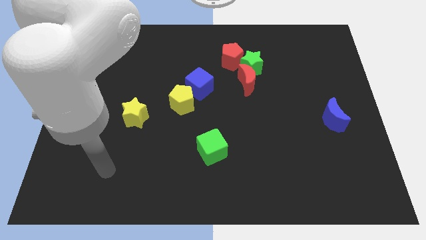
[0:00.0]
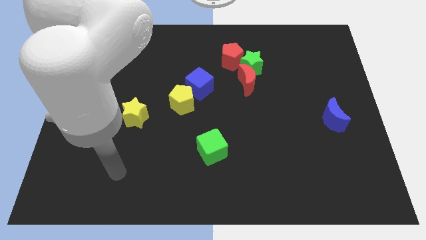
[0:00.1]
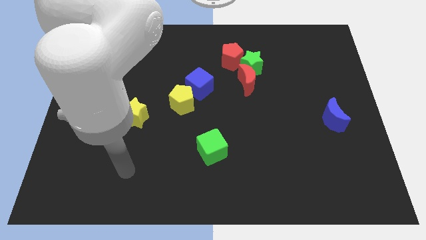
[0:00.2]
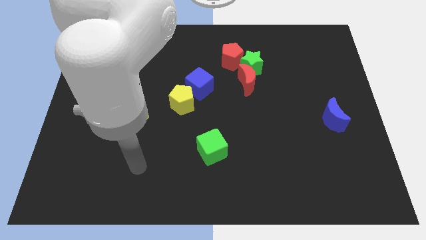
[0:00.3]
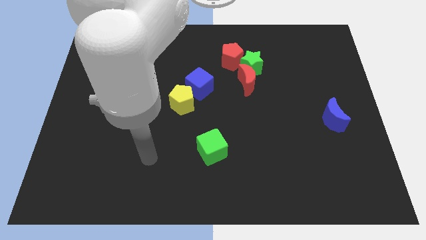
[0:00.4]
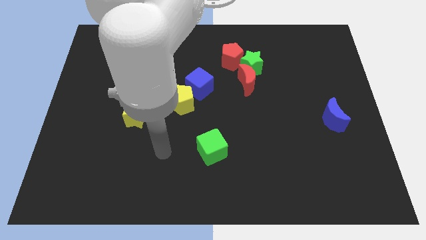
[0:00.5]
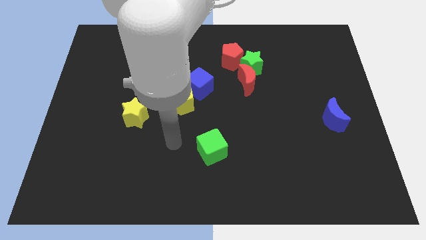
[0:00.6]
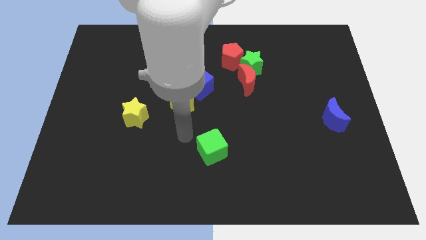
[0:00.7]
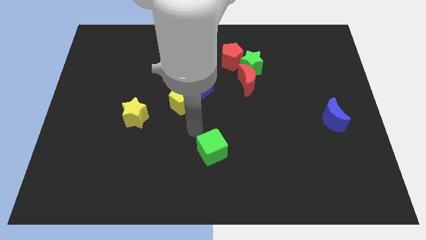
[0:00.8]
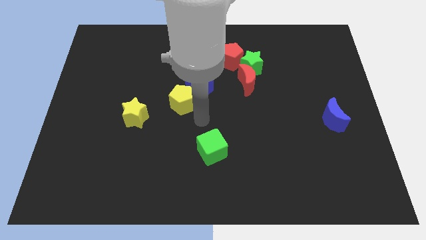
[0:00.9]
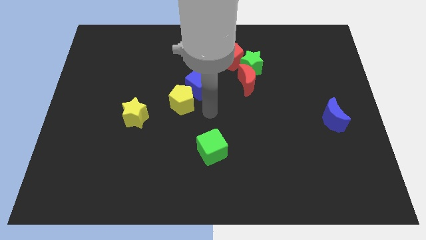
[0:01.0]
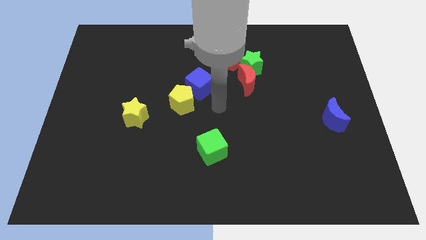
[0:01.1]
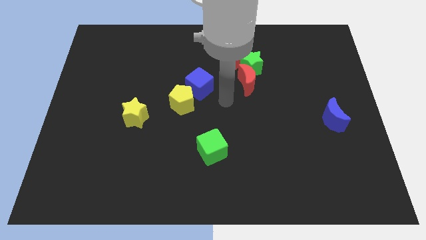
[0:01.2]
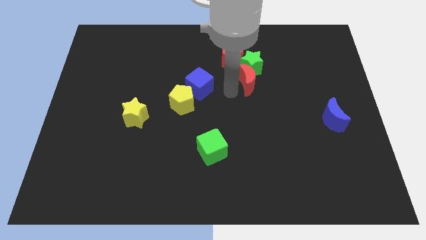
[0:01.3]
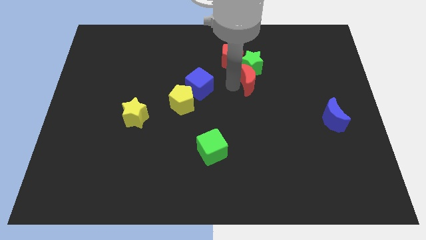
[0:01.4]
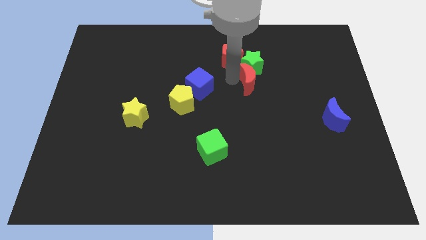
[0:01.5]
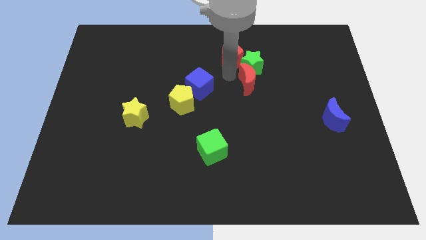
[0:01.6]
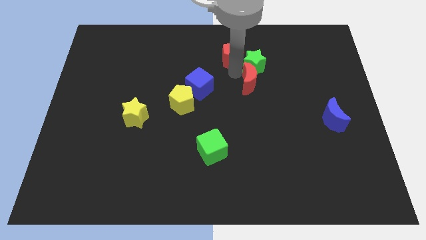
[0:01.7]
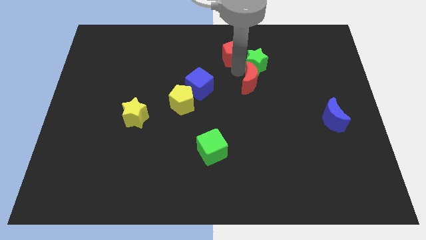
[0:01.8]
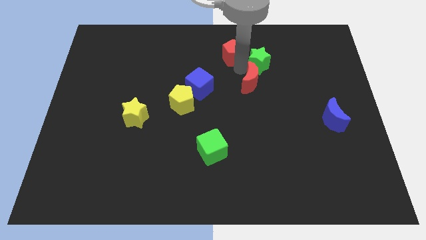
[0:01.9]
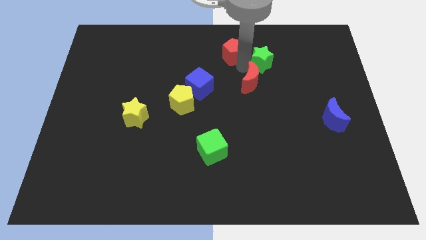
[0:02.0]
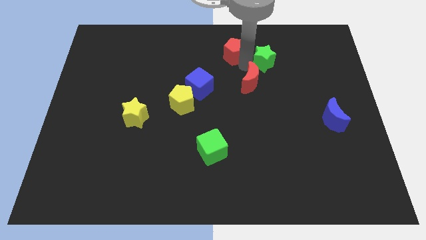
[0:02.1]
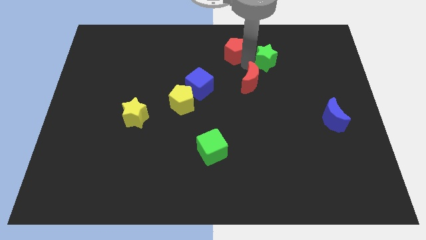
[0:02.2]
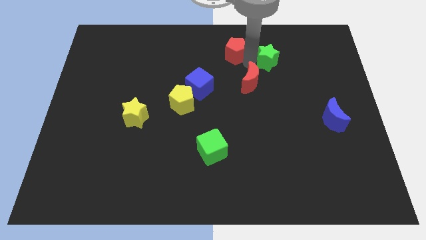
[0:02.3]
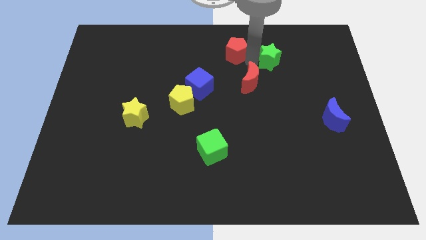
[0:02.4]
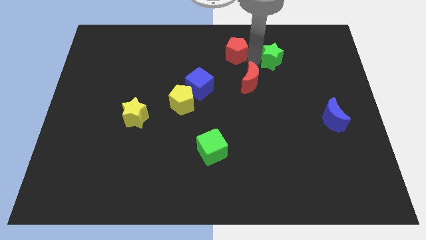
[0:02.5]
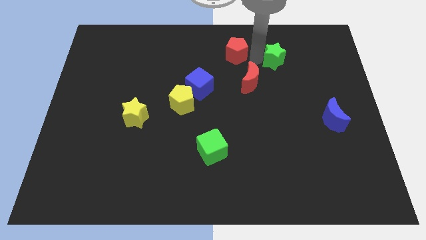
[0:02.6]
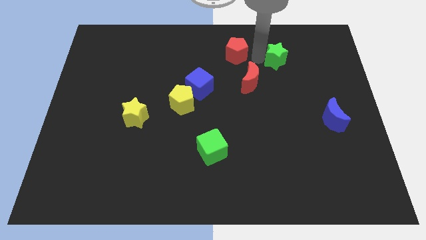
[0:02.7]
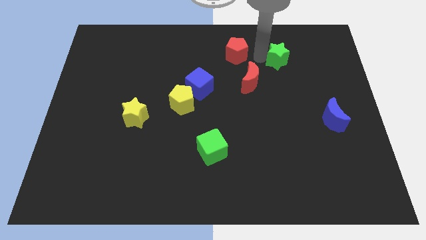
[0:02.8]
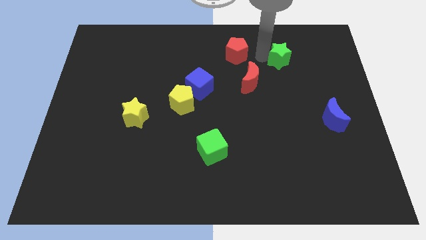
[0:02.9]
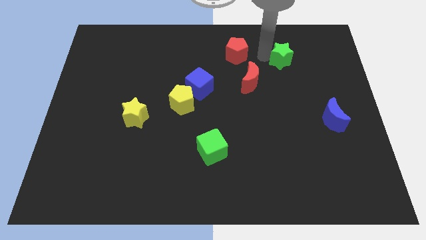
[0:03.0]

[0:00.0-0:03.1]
move the green star away from the red pentagon and red moon

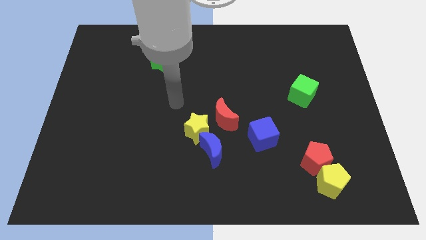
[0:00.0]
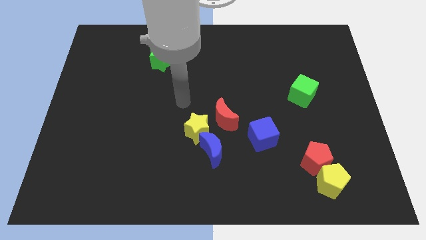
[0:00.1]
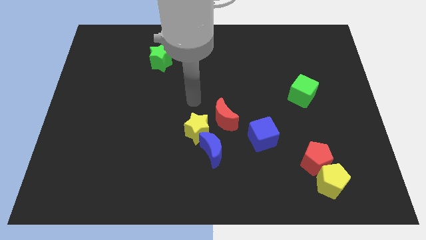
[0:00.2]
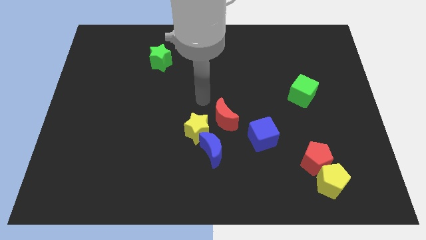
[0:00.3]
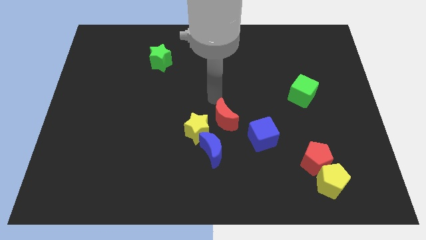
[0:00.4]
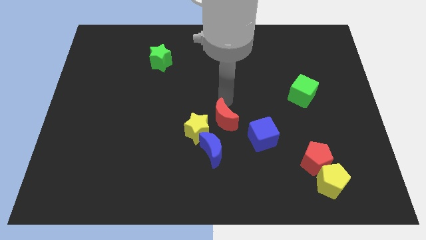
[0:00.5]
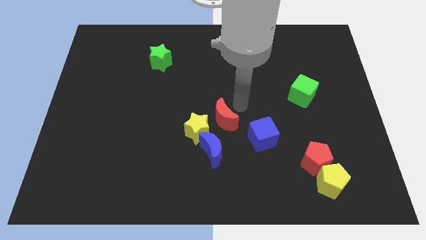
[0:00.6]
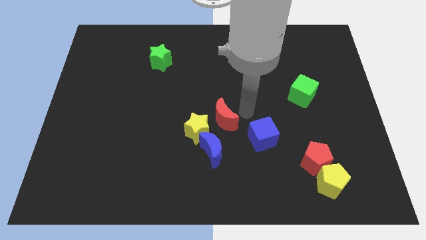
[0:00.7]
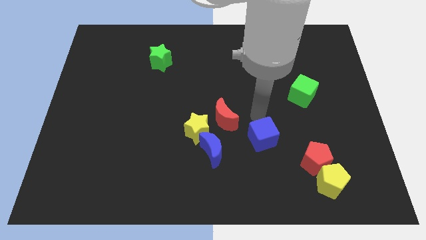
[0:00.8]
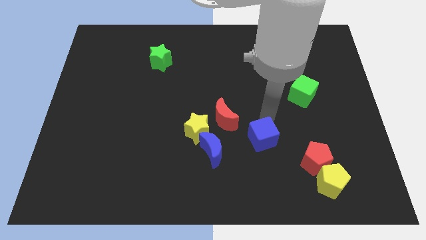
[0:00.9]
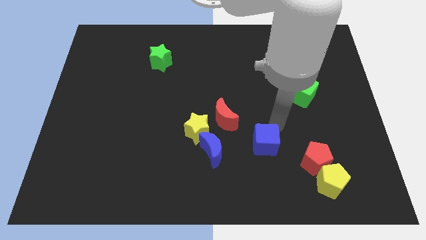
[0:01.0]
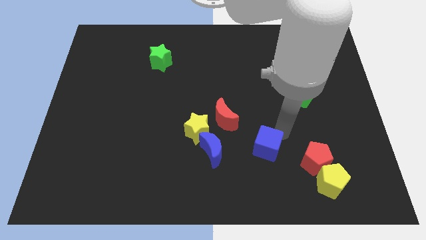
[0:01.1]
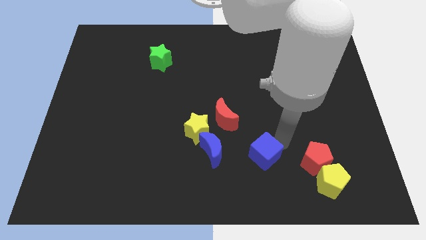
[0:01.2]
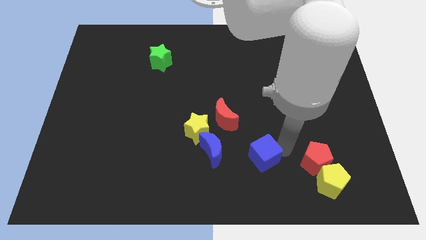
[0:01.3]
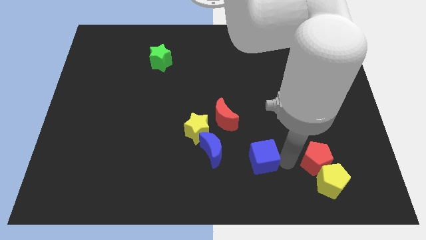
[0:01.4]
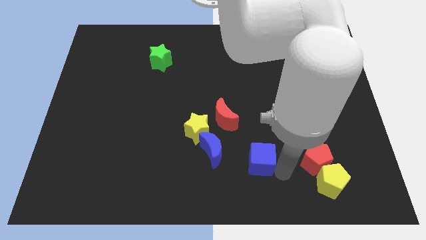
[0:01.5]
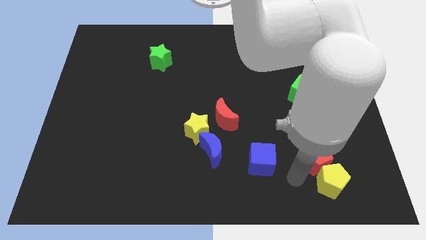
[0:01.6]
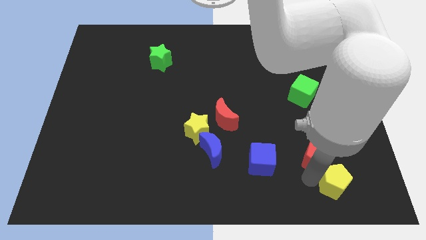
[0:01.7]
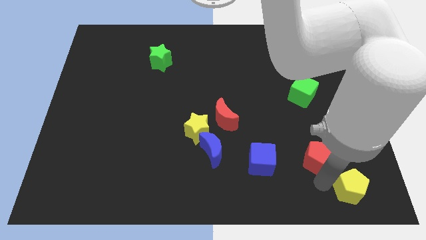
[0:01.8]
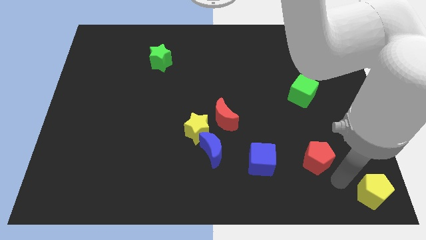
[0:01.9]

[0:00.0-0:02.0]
separate the red pentagon from the yellow pentagon

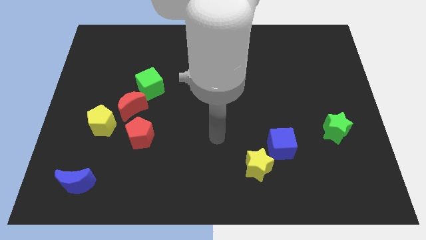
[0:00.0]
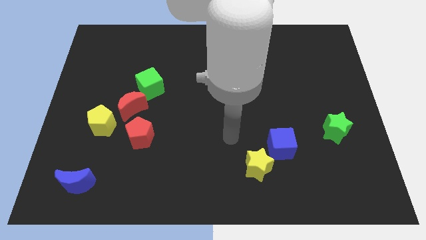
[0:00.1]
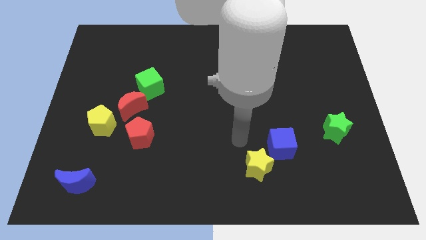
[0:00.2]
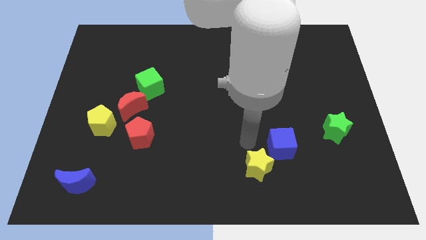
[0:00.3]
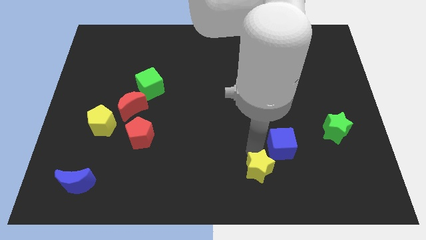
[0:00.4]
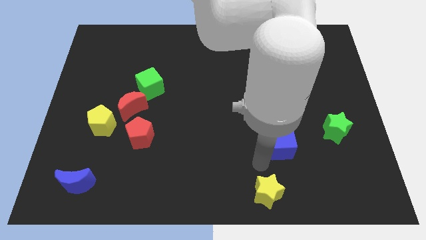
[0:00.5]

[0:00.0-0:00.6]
pull the blue cube apart from the yellow star

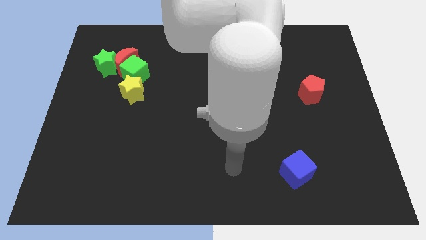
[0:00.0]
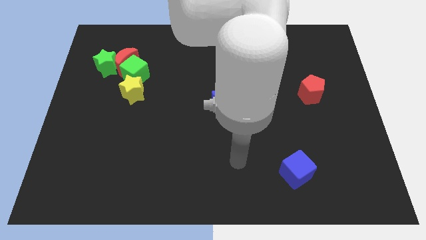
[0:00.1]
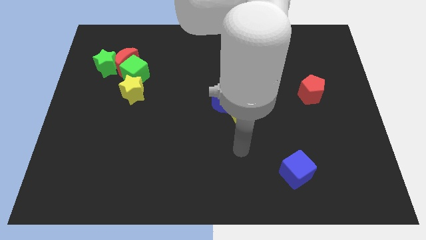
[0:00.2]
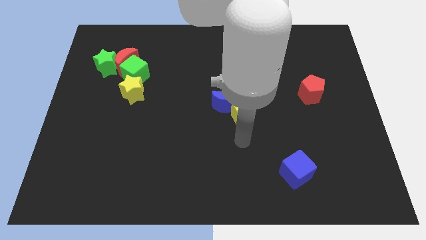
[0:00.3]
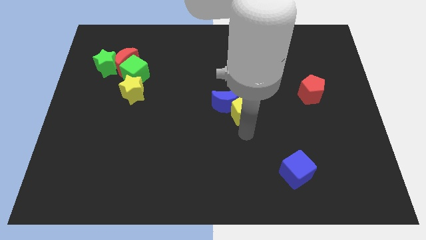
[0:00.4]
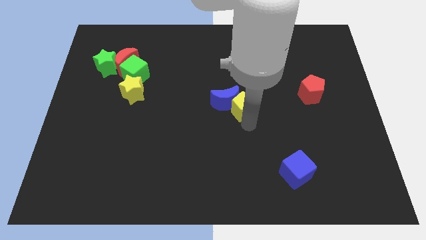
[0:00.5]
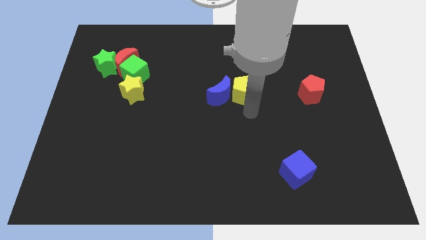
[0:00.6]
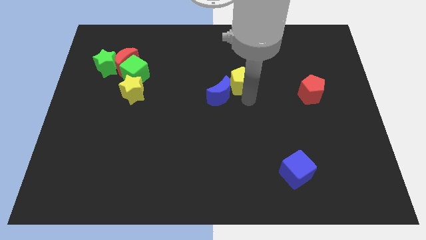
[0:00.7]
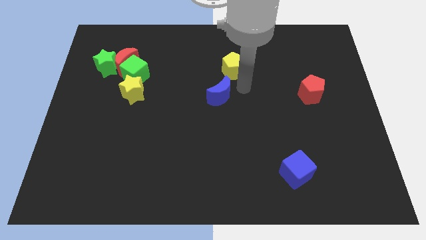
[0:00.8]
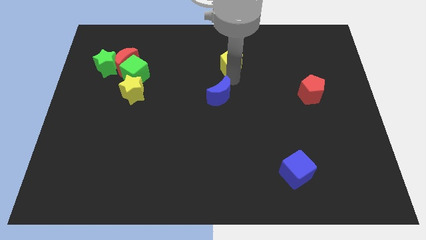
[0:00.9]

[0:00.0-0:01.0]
separate the blue moon from the yellow pentagon

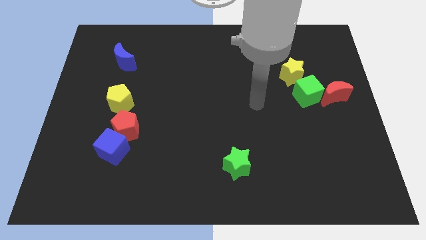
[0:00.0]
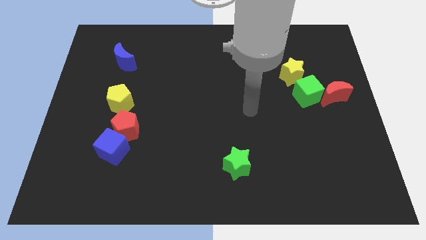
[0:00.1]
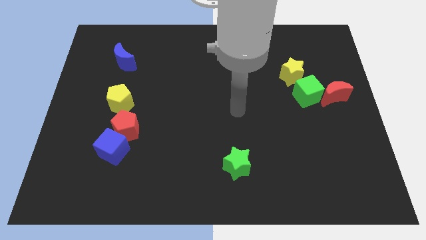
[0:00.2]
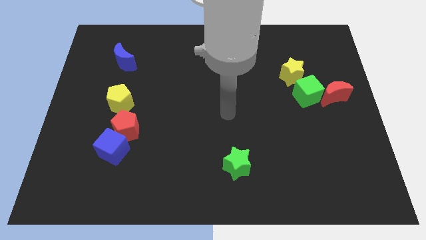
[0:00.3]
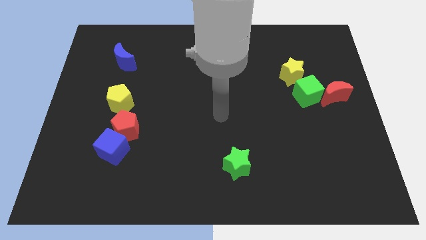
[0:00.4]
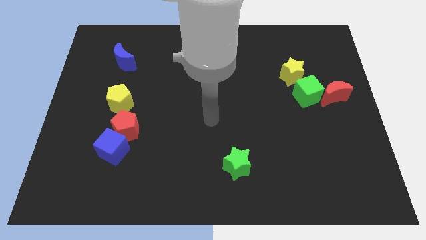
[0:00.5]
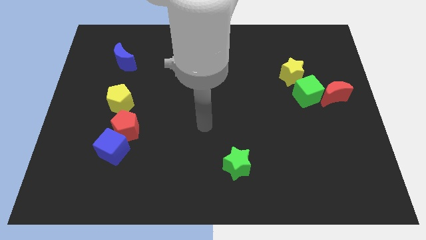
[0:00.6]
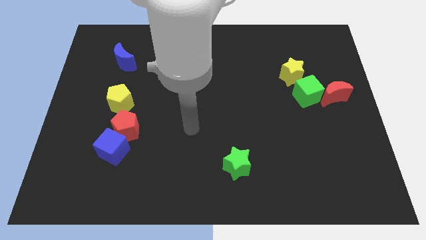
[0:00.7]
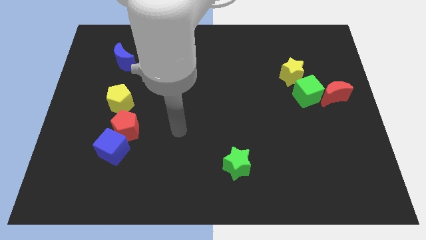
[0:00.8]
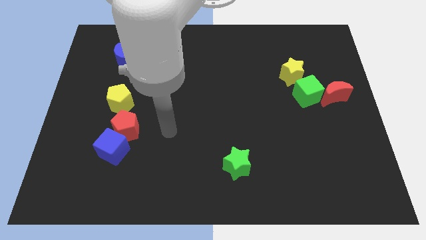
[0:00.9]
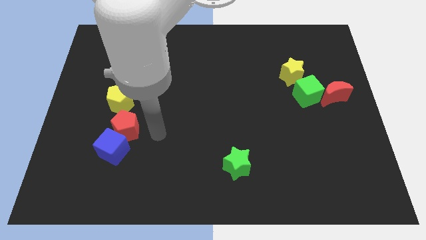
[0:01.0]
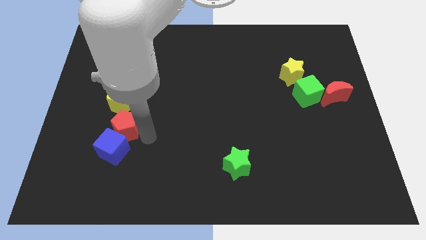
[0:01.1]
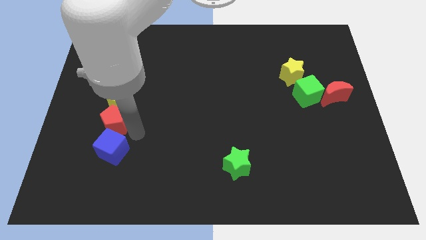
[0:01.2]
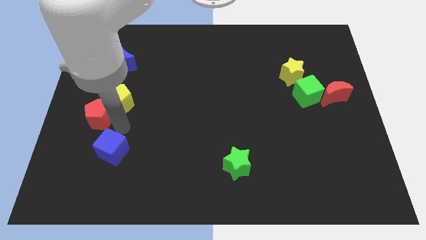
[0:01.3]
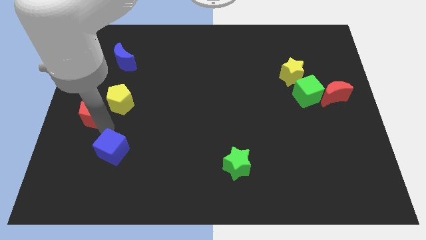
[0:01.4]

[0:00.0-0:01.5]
separate the blue cube from the red pentagon

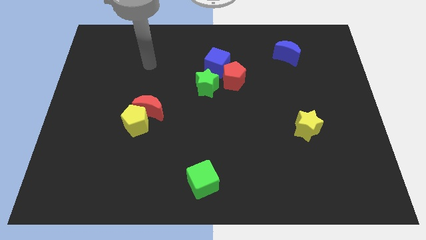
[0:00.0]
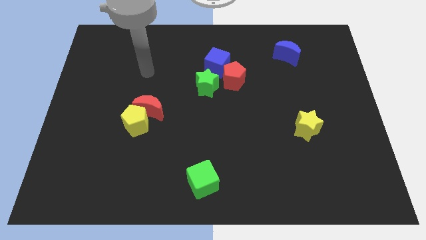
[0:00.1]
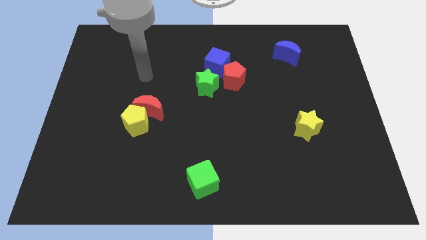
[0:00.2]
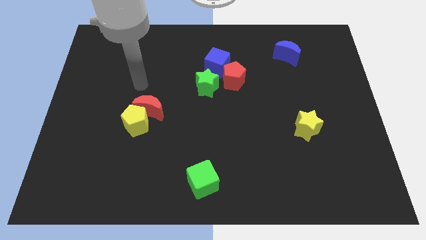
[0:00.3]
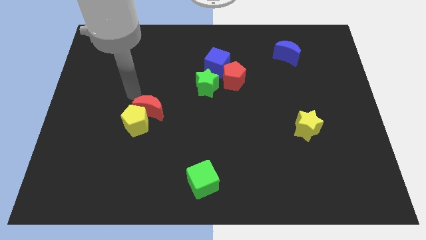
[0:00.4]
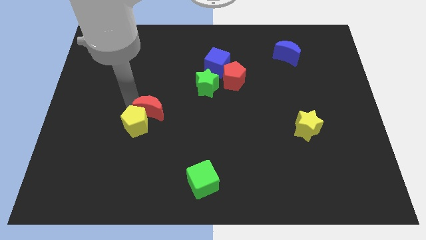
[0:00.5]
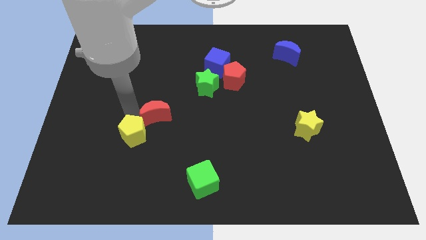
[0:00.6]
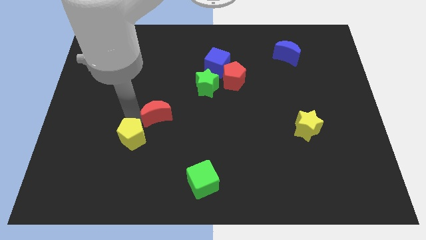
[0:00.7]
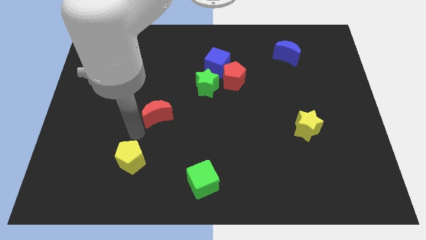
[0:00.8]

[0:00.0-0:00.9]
pull the red moon apart from the yellow pentagon

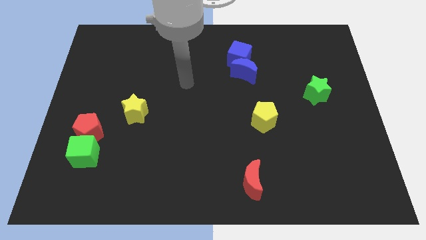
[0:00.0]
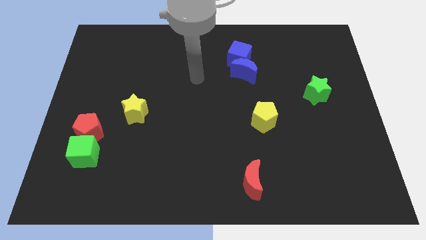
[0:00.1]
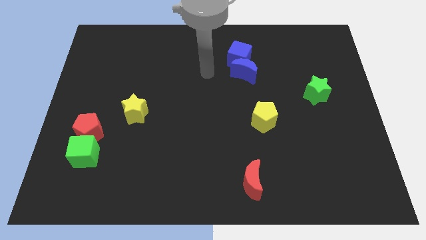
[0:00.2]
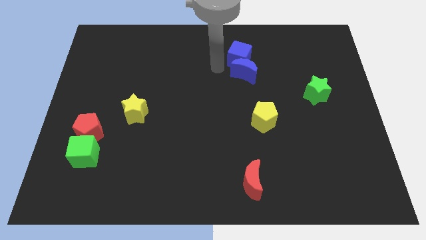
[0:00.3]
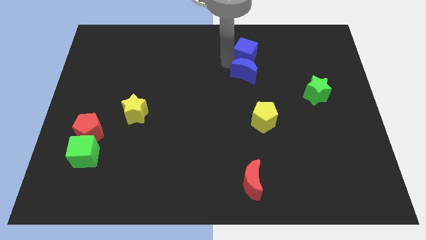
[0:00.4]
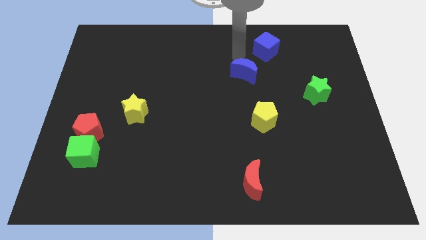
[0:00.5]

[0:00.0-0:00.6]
move the blue moon away from the blue cube
